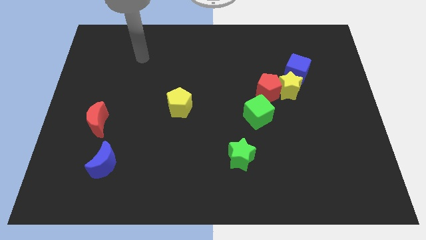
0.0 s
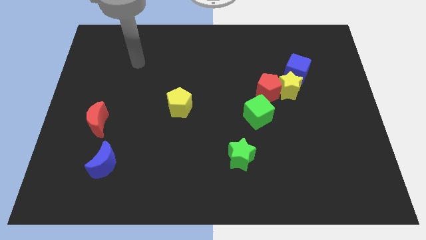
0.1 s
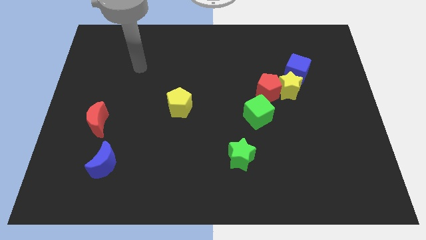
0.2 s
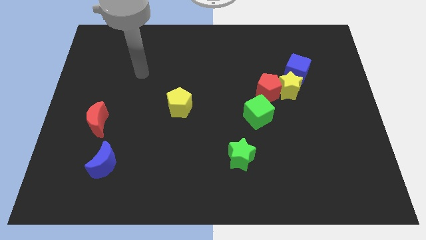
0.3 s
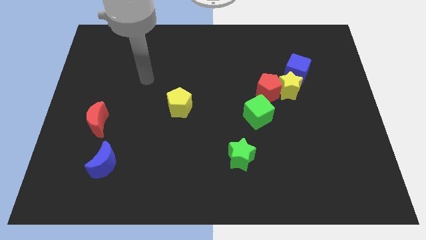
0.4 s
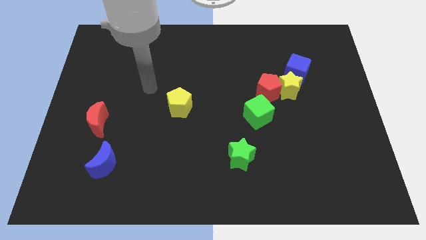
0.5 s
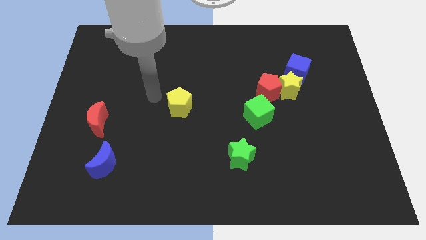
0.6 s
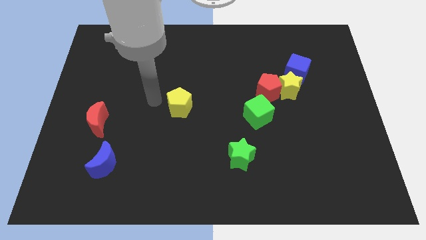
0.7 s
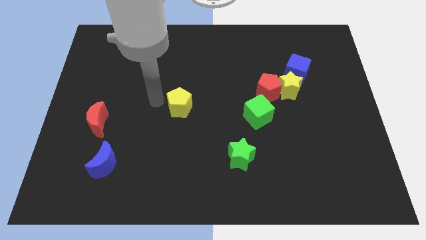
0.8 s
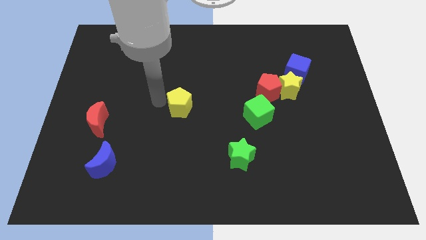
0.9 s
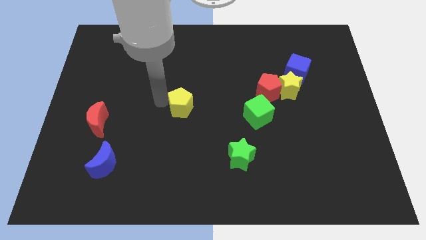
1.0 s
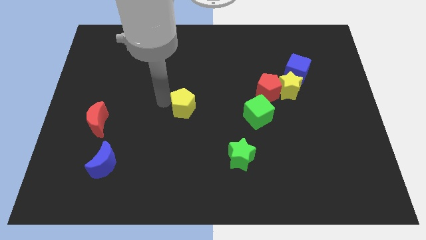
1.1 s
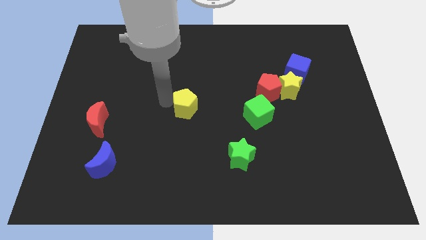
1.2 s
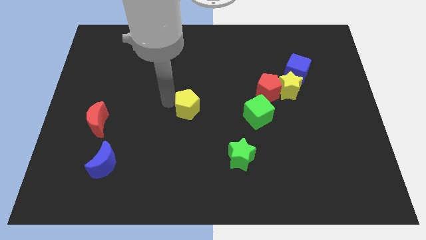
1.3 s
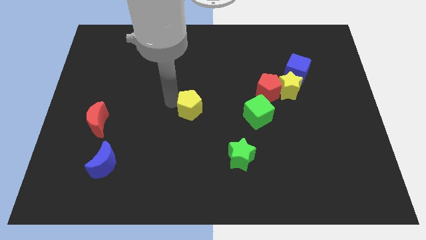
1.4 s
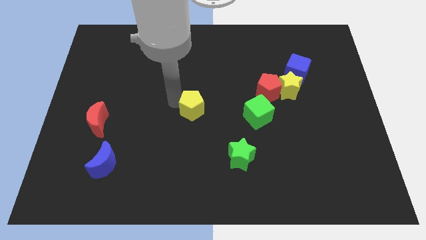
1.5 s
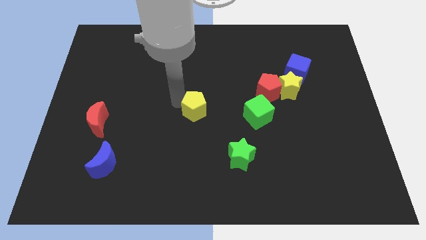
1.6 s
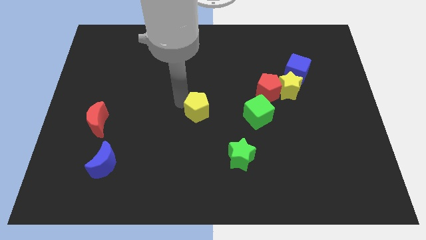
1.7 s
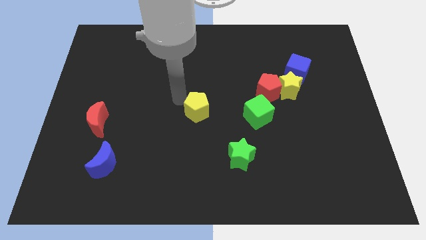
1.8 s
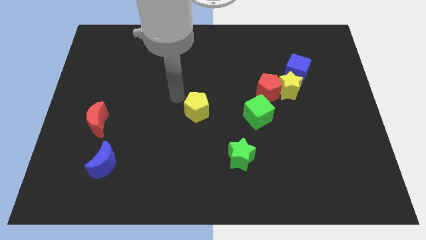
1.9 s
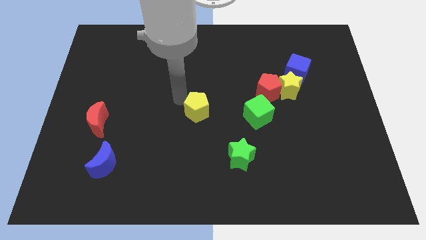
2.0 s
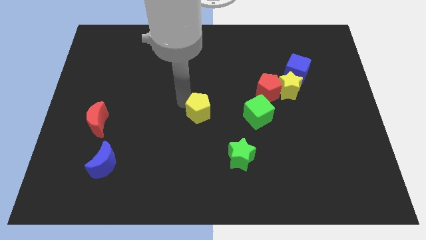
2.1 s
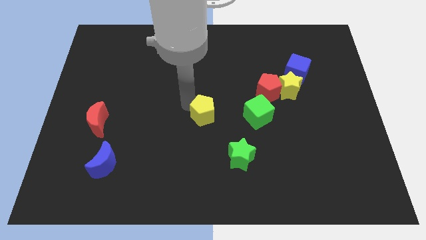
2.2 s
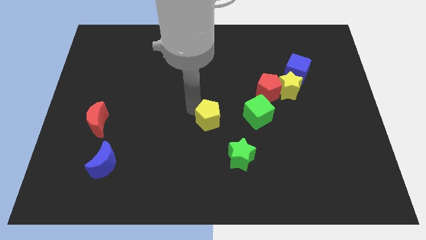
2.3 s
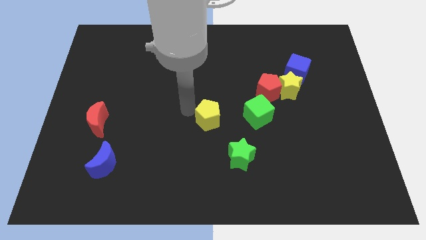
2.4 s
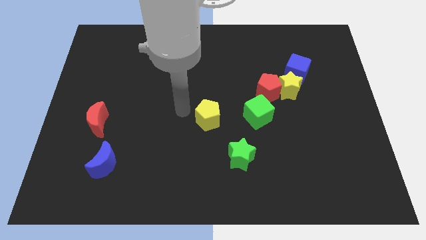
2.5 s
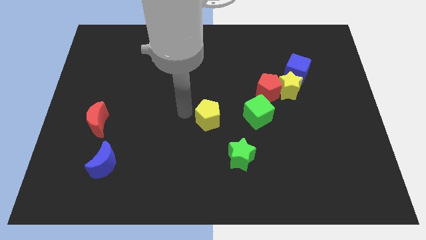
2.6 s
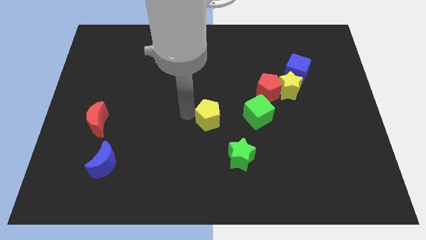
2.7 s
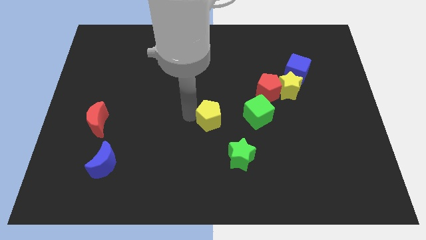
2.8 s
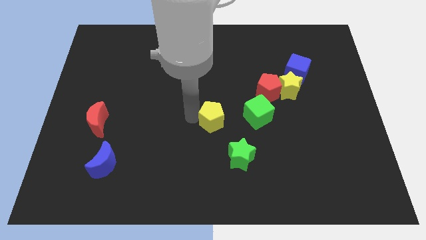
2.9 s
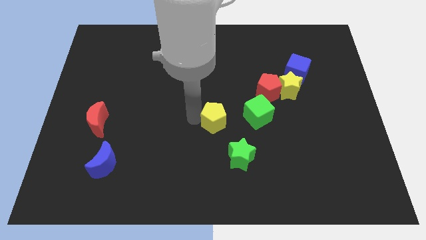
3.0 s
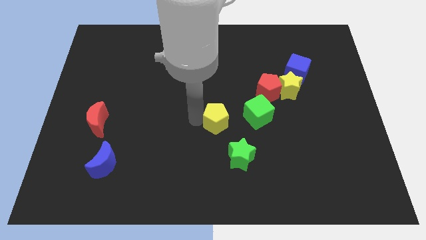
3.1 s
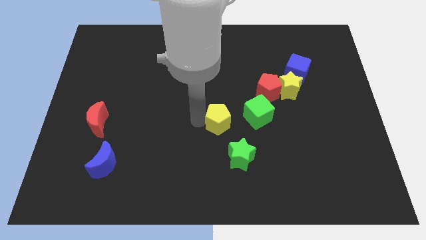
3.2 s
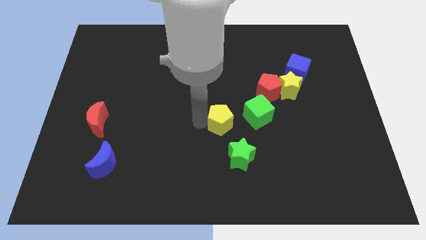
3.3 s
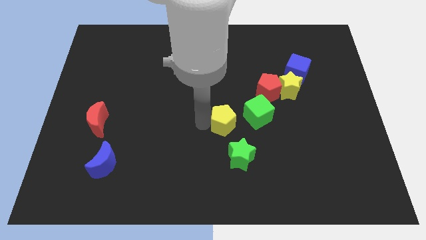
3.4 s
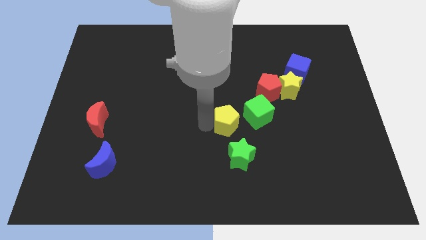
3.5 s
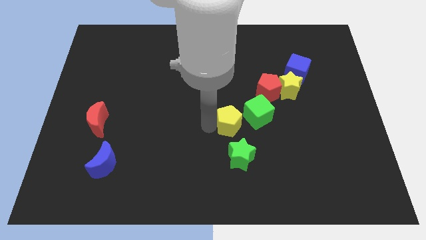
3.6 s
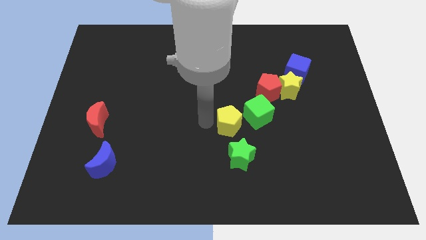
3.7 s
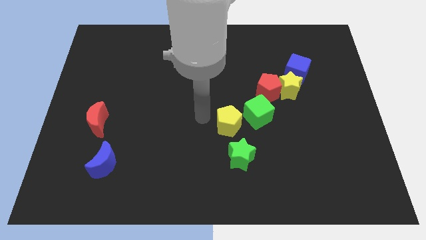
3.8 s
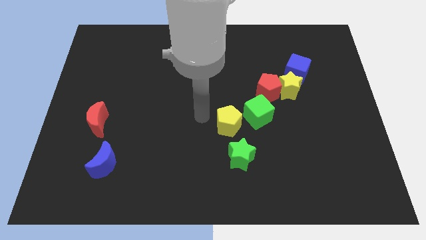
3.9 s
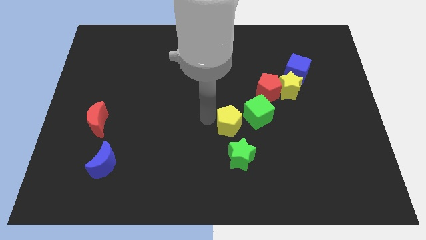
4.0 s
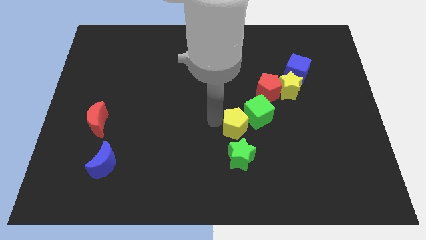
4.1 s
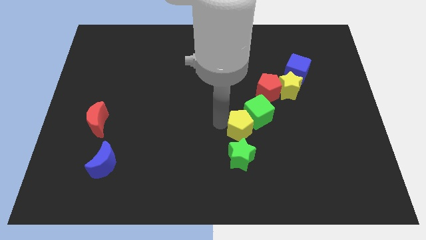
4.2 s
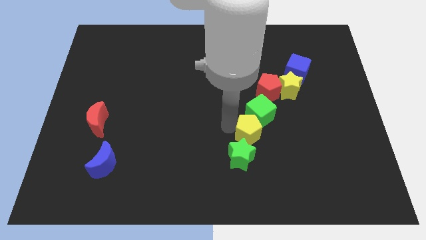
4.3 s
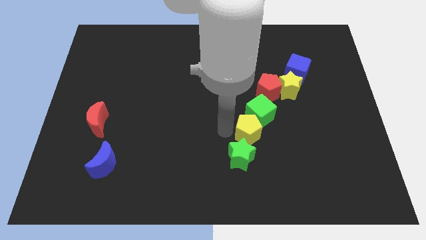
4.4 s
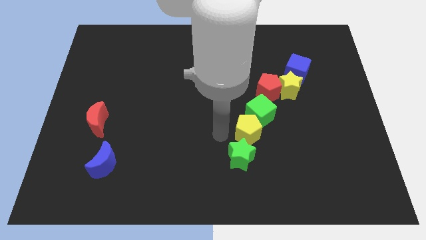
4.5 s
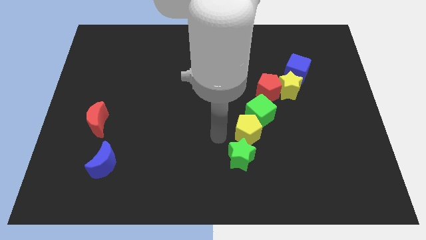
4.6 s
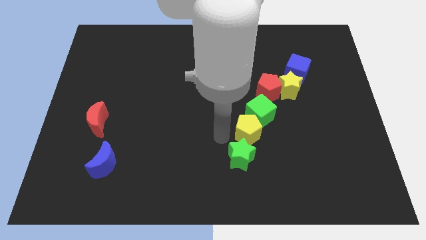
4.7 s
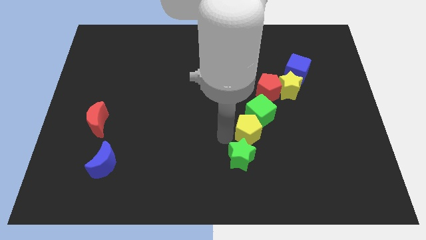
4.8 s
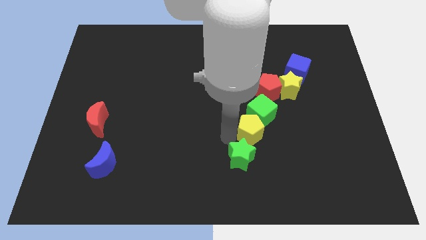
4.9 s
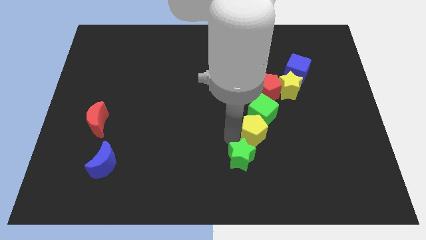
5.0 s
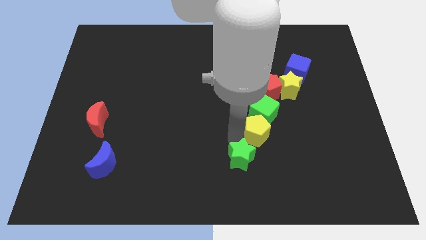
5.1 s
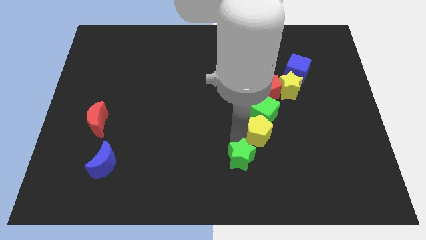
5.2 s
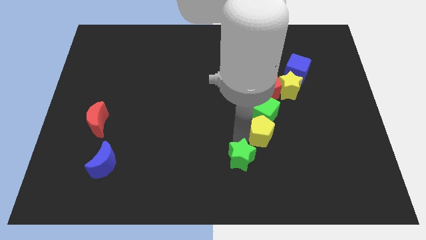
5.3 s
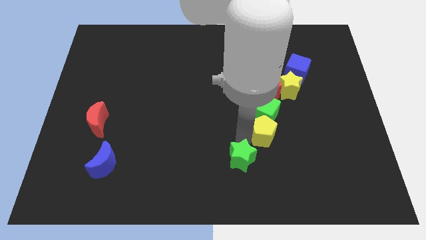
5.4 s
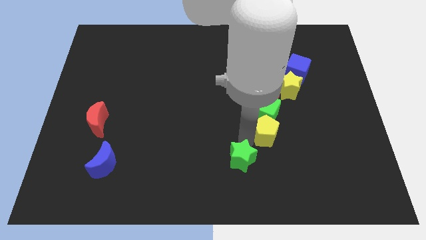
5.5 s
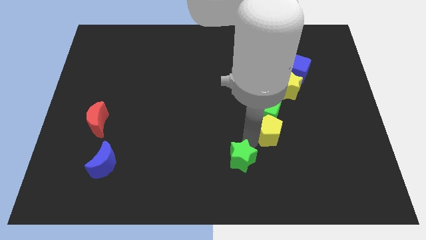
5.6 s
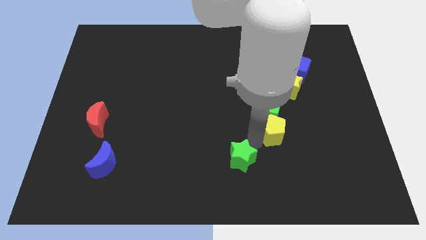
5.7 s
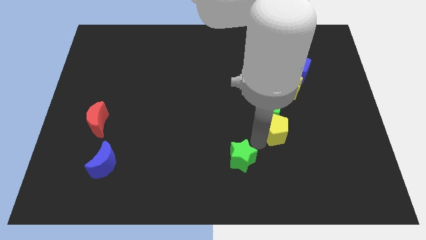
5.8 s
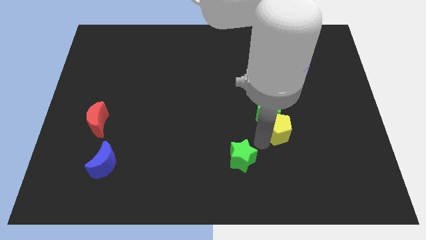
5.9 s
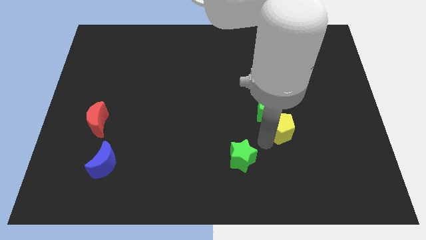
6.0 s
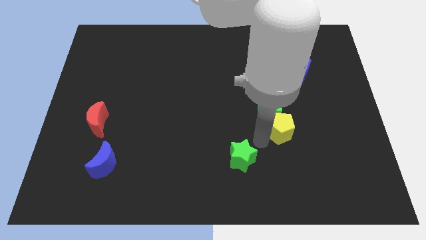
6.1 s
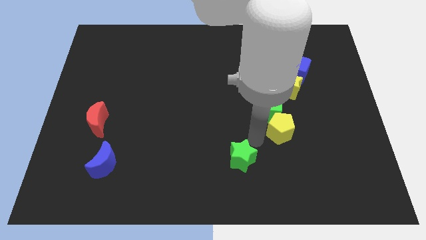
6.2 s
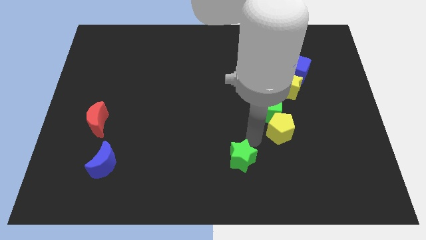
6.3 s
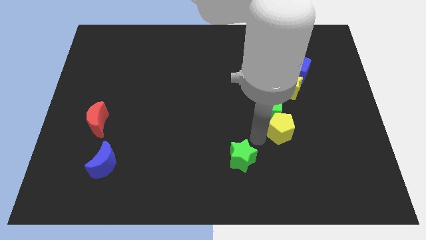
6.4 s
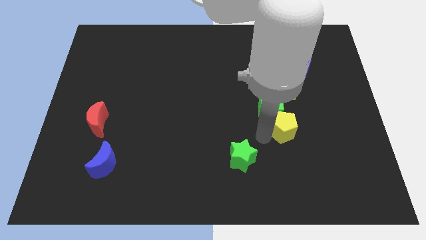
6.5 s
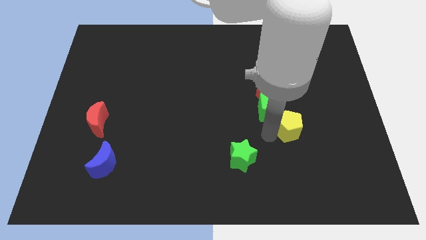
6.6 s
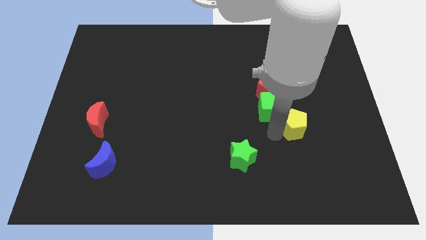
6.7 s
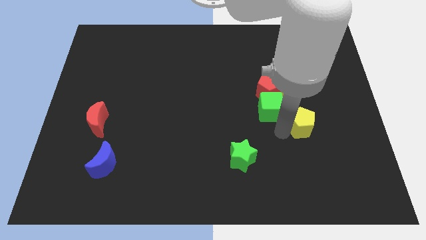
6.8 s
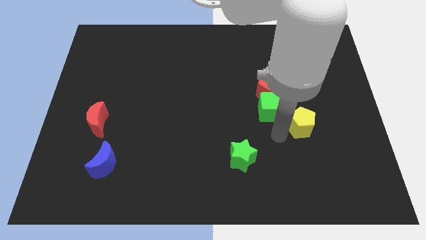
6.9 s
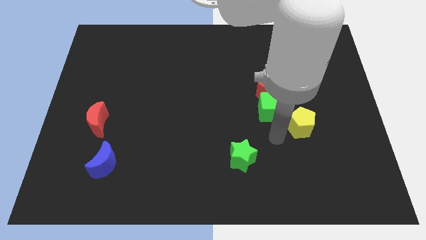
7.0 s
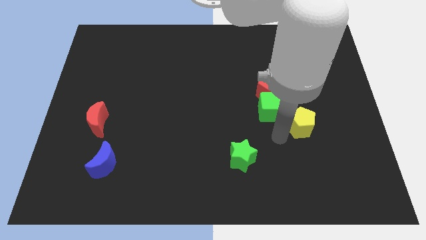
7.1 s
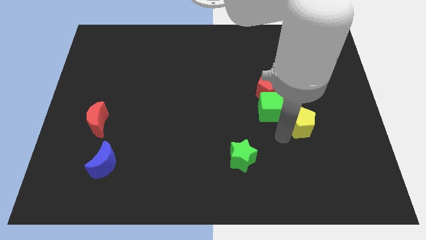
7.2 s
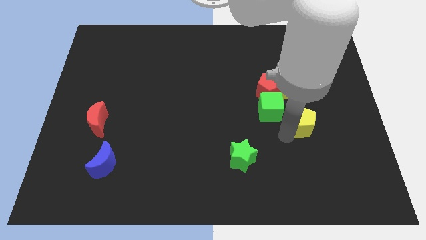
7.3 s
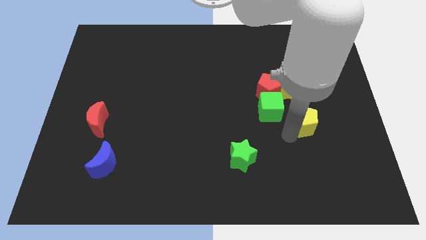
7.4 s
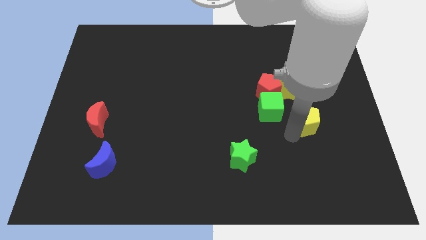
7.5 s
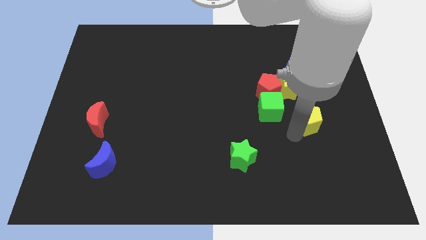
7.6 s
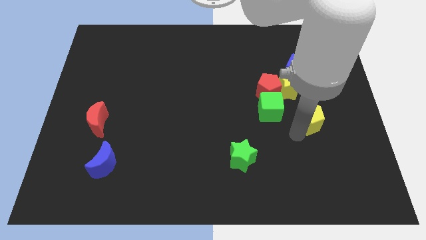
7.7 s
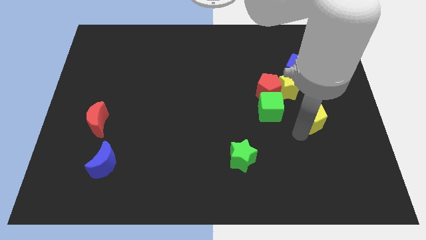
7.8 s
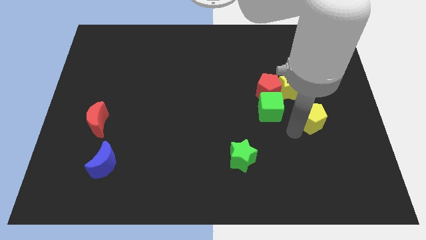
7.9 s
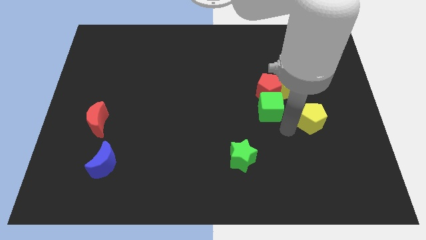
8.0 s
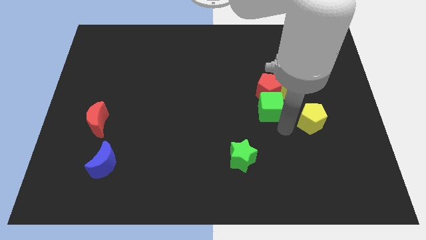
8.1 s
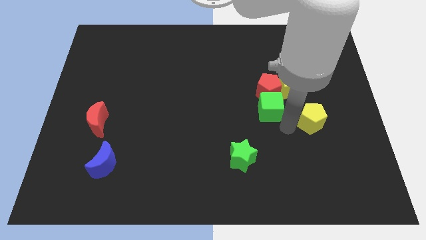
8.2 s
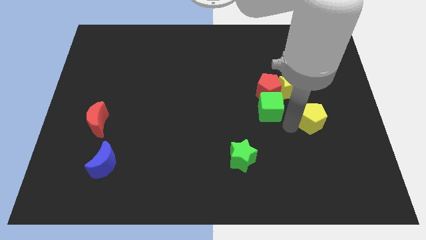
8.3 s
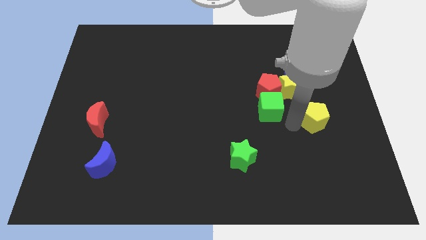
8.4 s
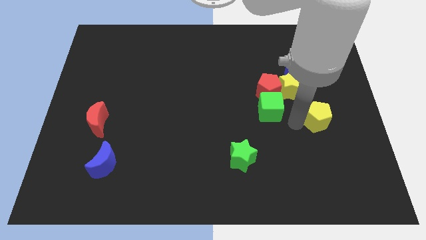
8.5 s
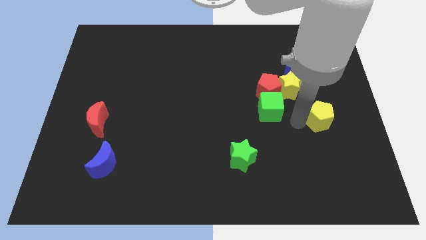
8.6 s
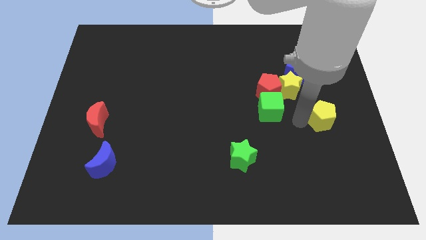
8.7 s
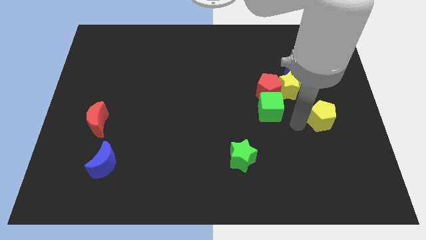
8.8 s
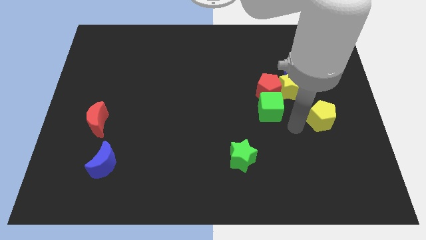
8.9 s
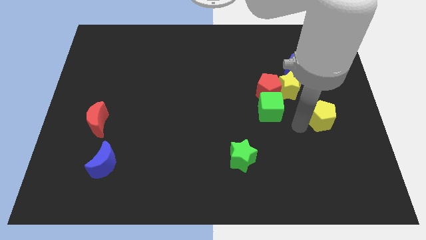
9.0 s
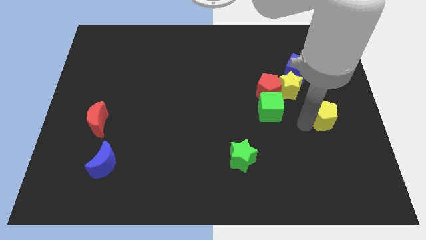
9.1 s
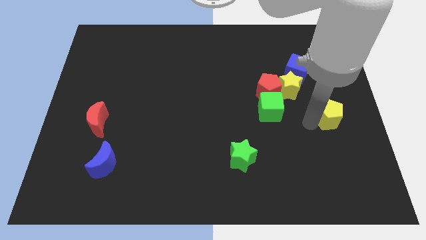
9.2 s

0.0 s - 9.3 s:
push the yellow pentagon to the right side
